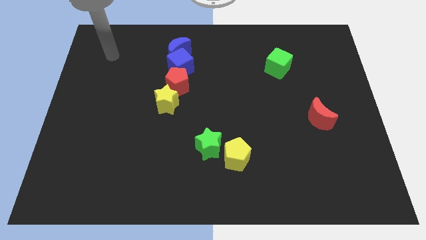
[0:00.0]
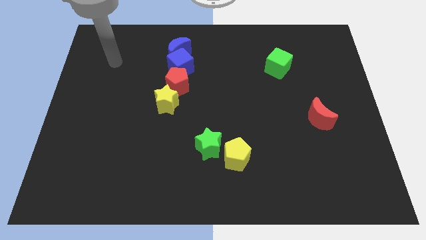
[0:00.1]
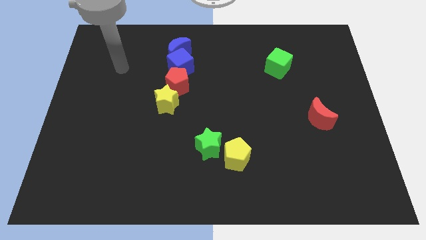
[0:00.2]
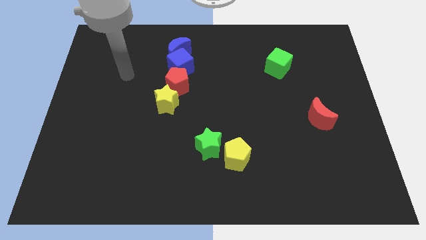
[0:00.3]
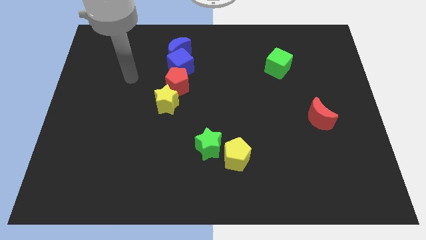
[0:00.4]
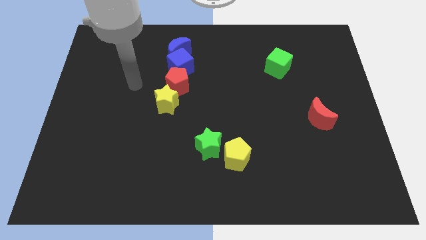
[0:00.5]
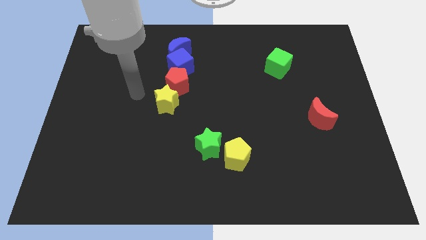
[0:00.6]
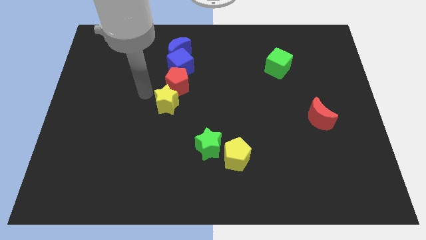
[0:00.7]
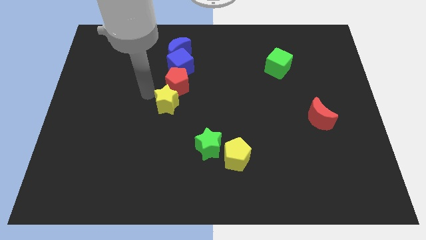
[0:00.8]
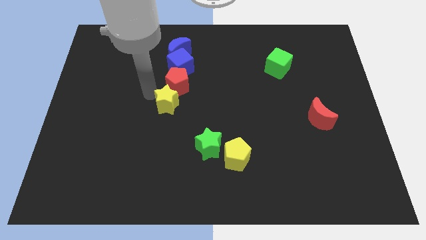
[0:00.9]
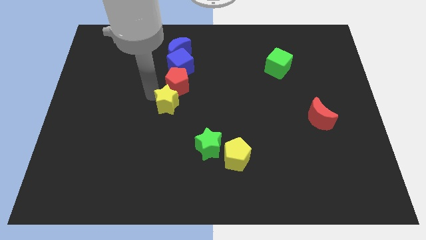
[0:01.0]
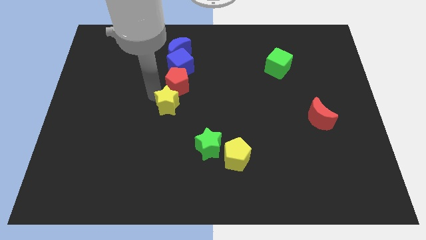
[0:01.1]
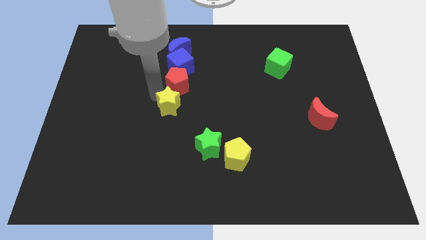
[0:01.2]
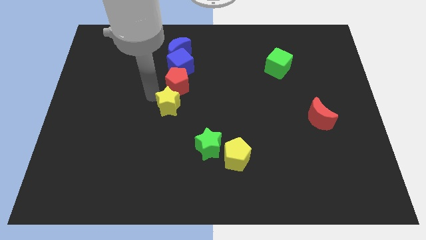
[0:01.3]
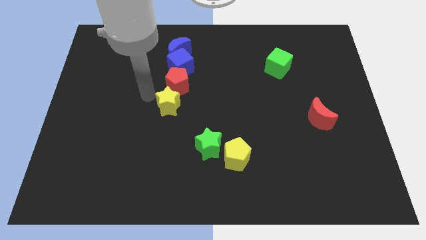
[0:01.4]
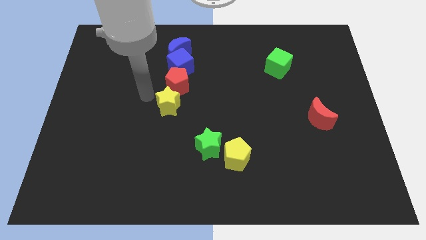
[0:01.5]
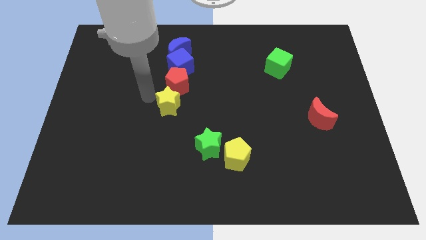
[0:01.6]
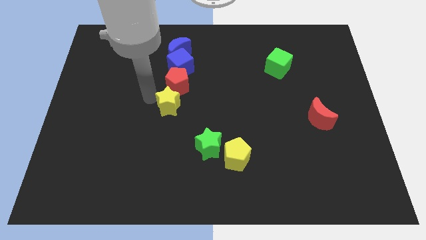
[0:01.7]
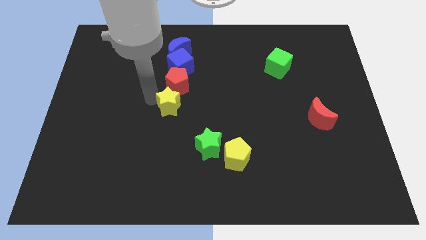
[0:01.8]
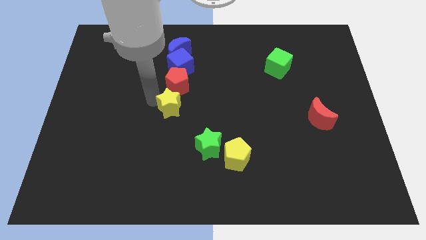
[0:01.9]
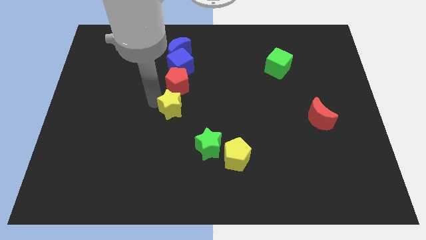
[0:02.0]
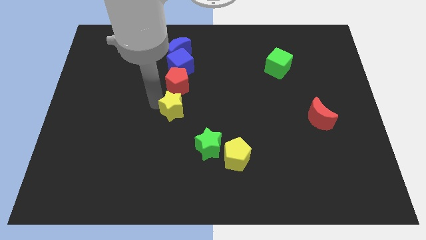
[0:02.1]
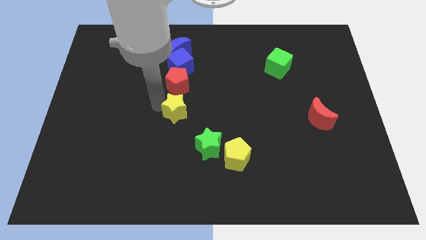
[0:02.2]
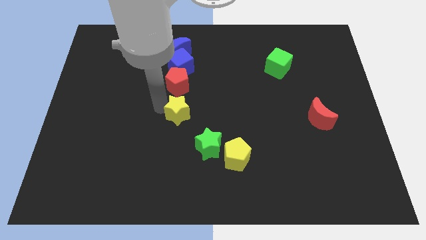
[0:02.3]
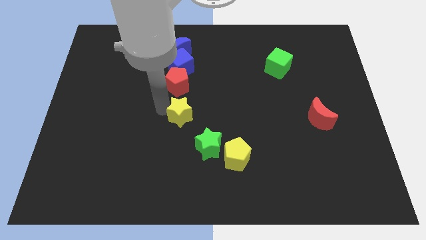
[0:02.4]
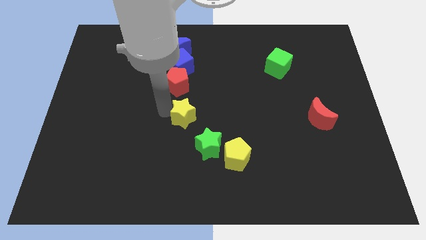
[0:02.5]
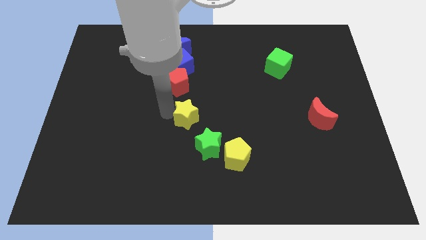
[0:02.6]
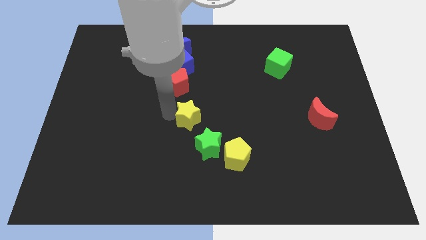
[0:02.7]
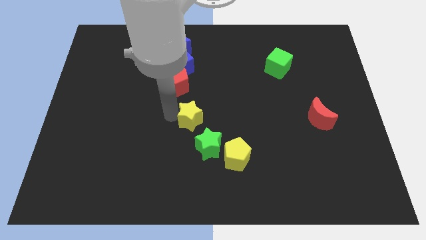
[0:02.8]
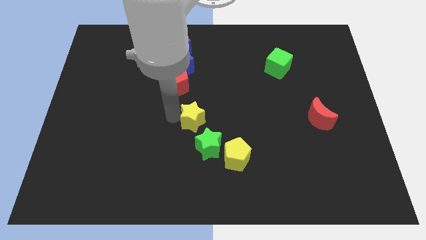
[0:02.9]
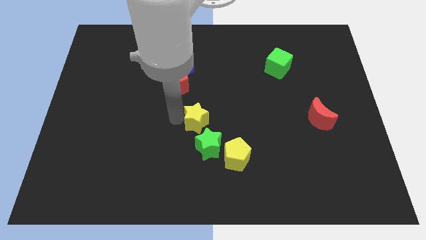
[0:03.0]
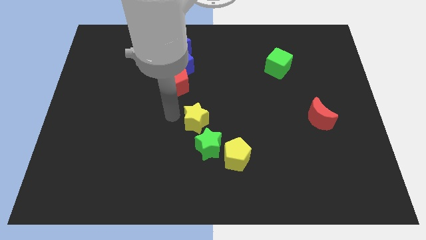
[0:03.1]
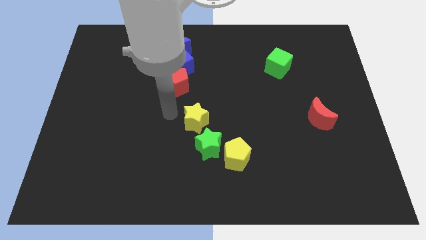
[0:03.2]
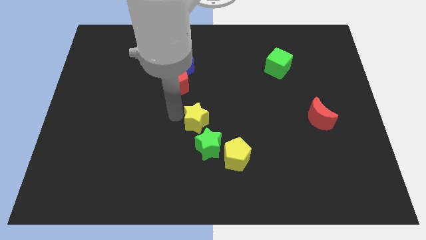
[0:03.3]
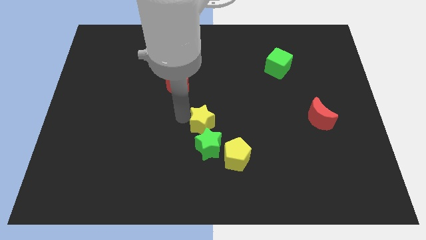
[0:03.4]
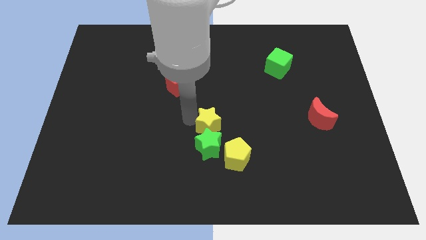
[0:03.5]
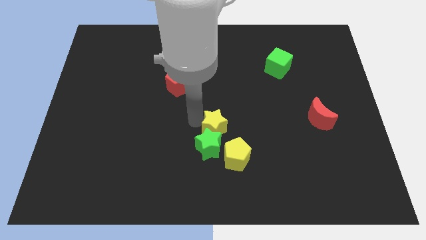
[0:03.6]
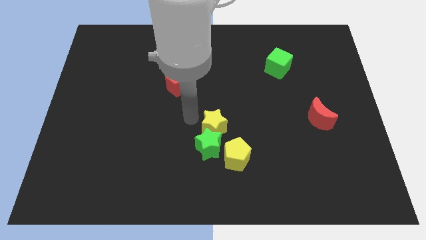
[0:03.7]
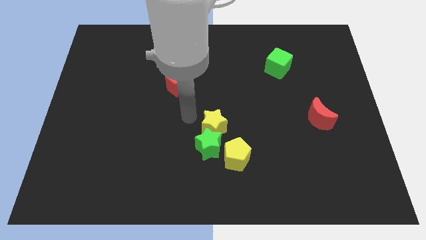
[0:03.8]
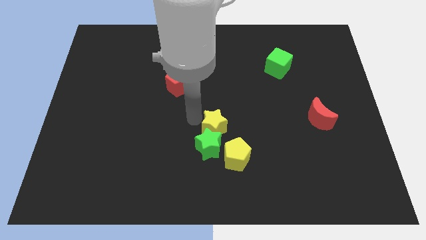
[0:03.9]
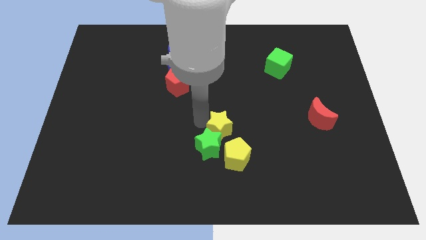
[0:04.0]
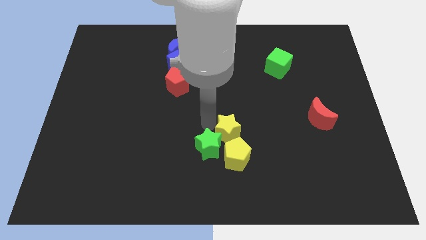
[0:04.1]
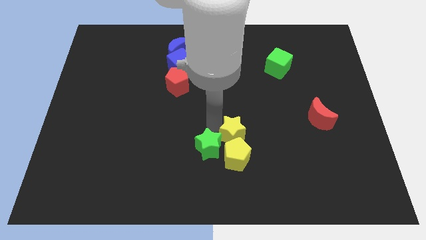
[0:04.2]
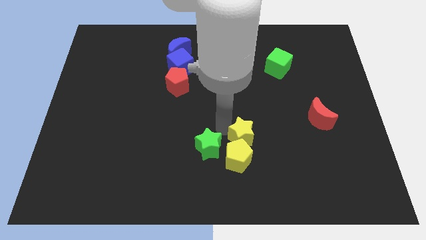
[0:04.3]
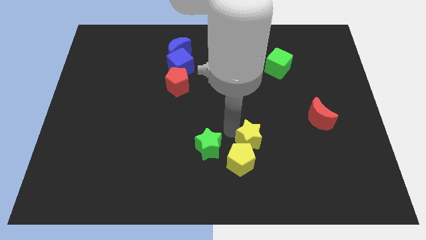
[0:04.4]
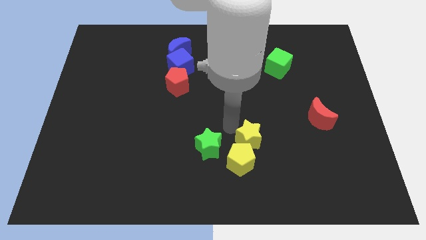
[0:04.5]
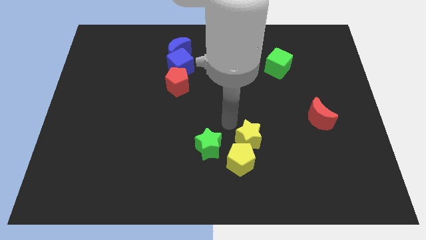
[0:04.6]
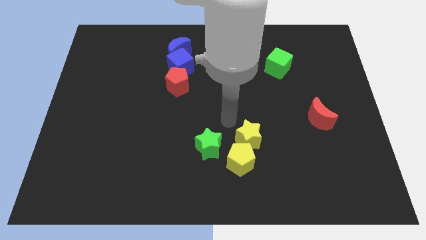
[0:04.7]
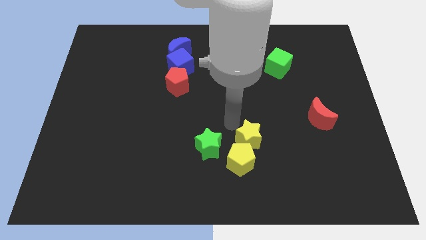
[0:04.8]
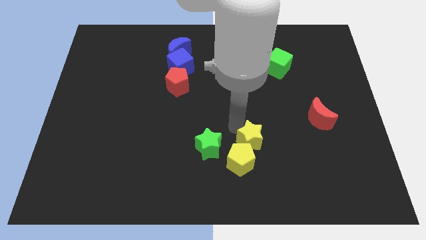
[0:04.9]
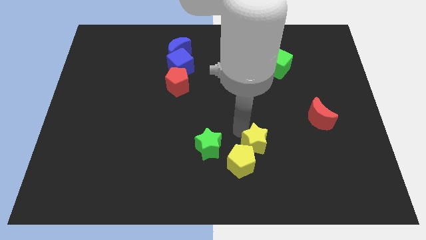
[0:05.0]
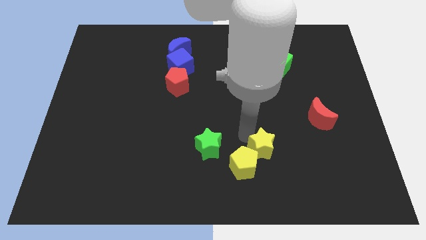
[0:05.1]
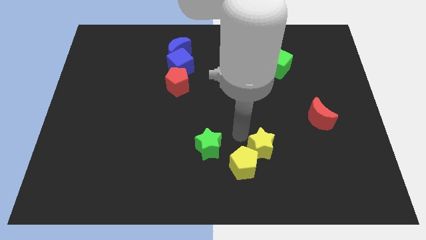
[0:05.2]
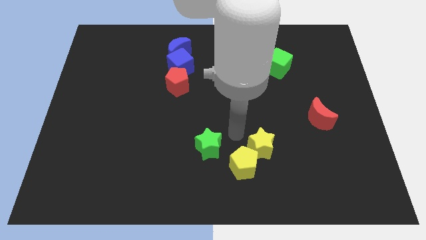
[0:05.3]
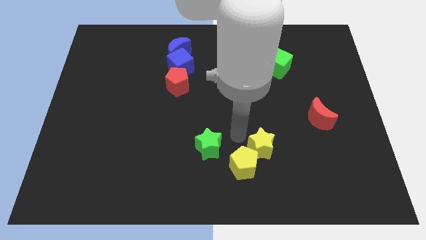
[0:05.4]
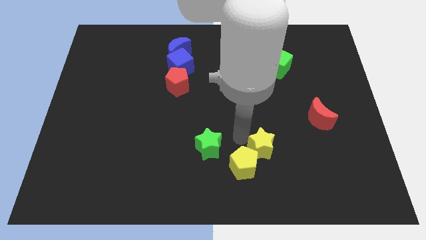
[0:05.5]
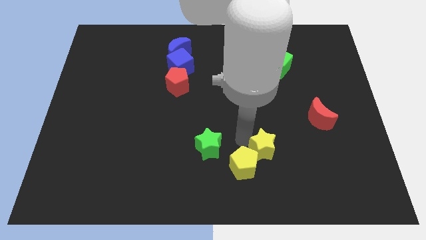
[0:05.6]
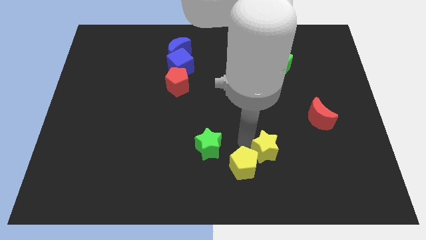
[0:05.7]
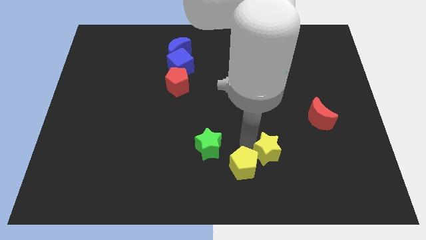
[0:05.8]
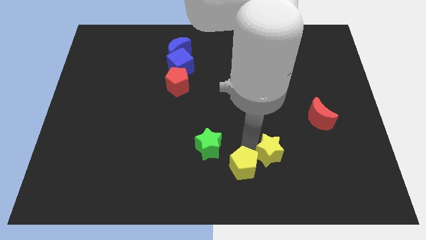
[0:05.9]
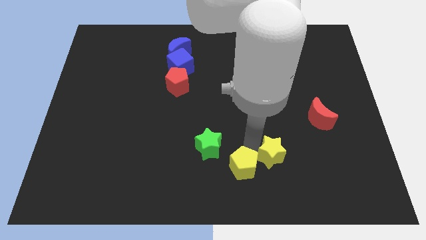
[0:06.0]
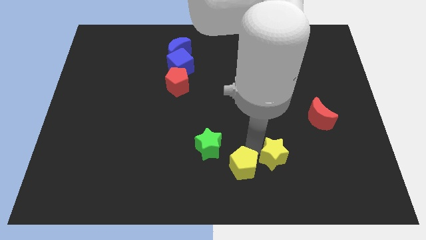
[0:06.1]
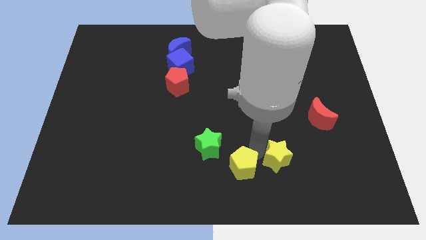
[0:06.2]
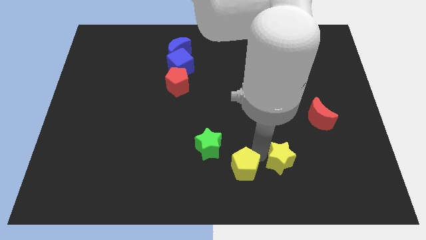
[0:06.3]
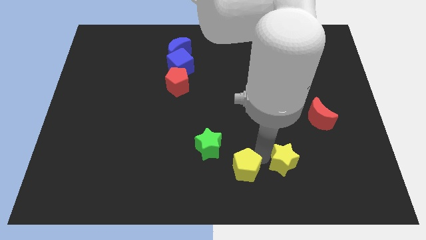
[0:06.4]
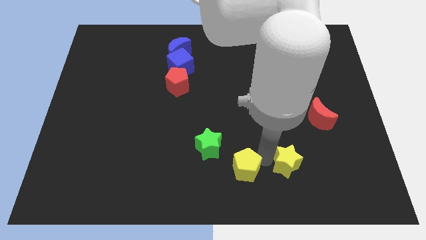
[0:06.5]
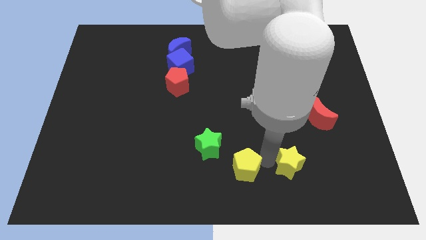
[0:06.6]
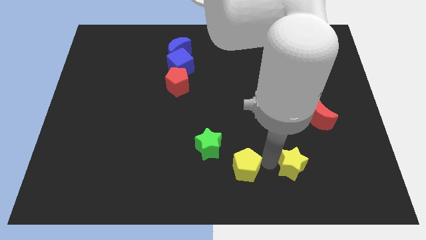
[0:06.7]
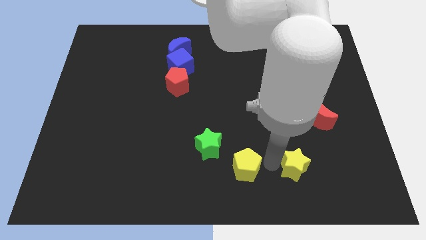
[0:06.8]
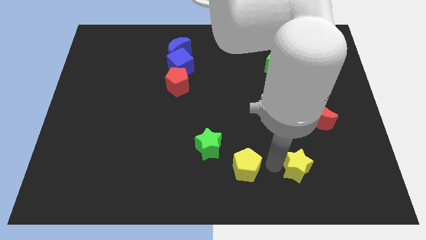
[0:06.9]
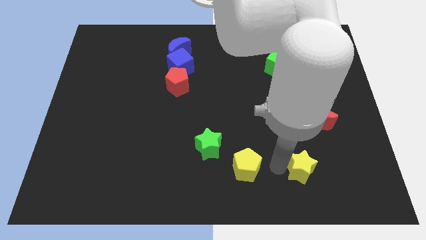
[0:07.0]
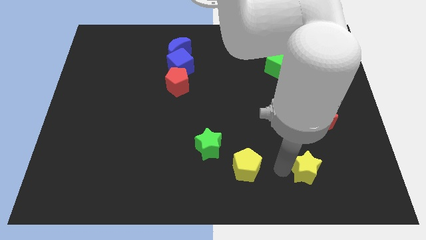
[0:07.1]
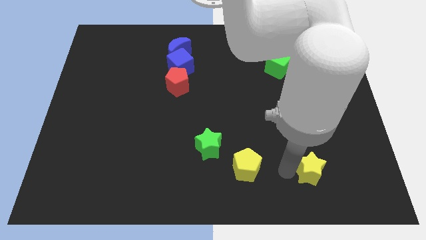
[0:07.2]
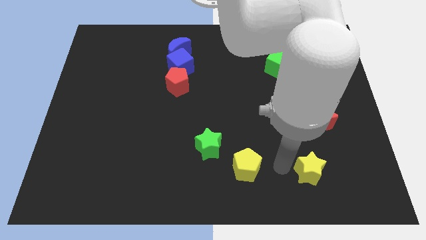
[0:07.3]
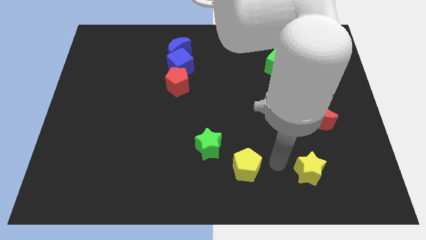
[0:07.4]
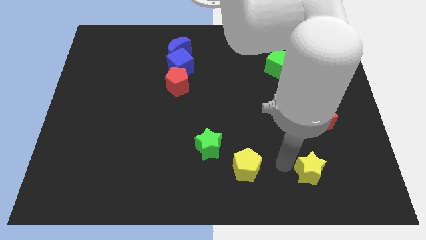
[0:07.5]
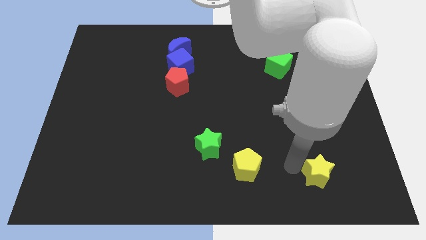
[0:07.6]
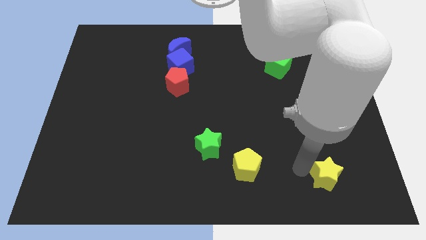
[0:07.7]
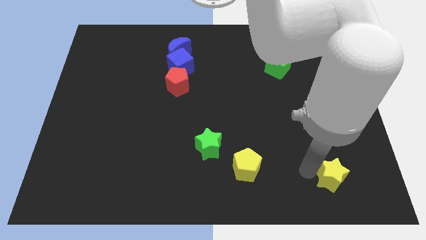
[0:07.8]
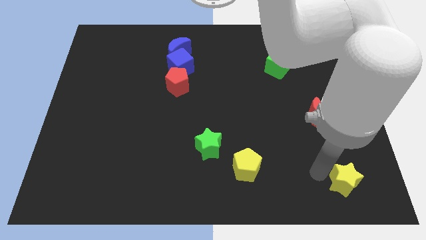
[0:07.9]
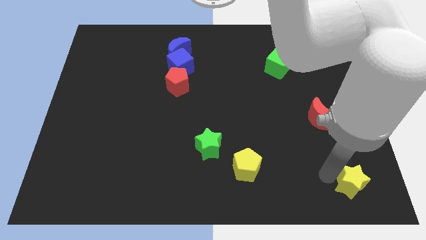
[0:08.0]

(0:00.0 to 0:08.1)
move the yellow star to the lower right corner
